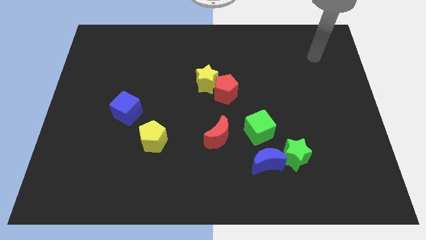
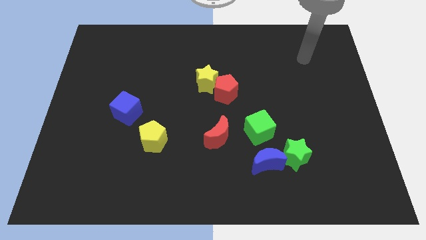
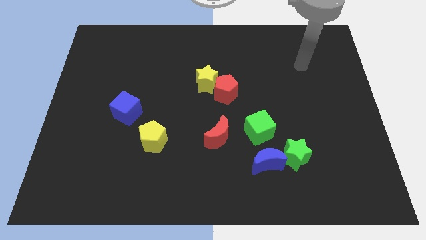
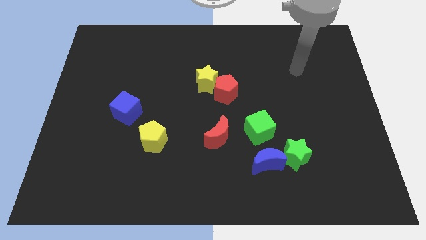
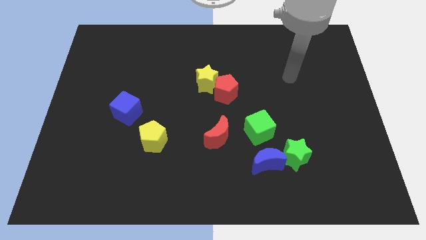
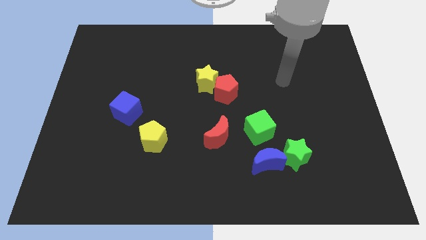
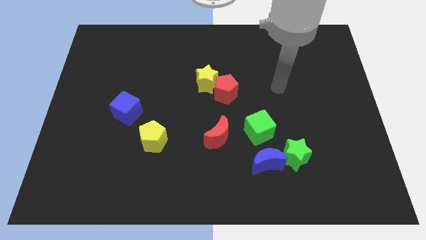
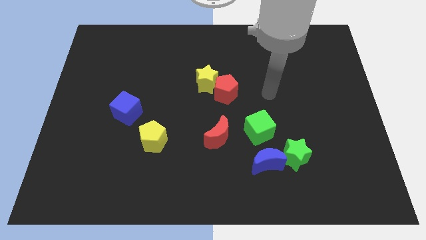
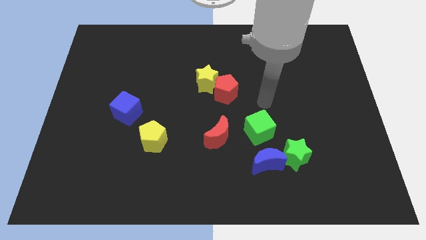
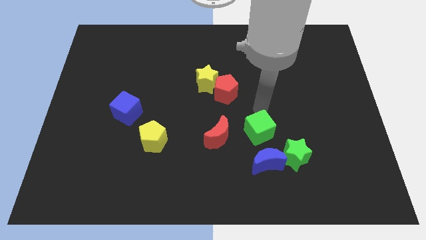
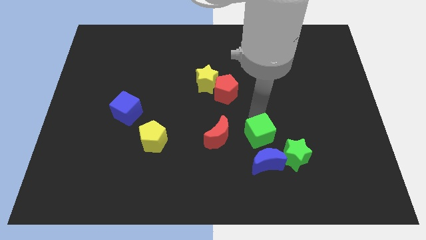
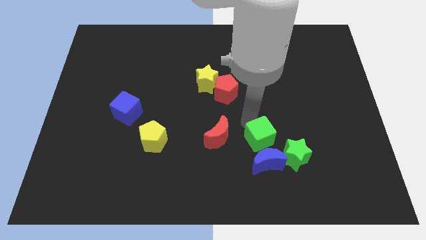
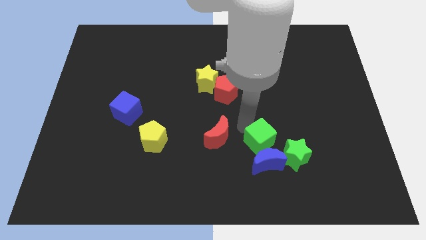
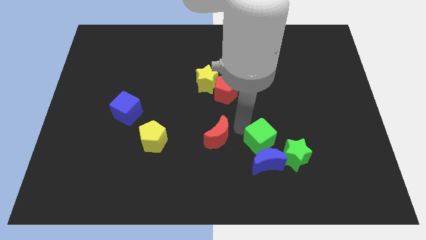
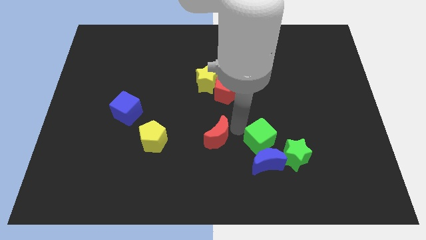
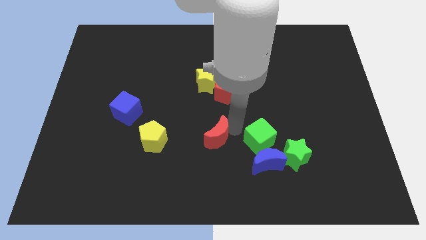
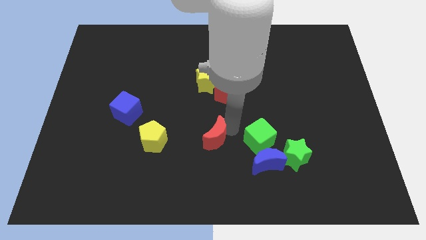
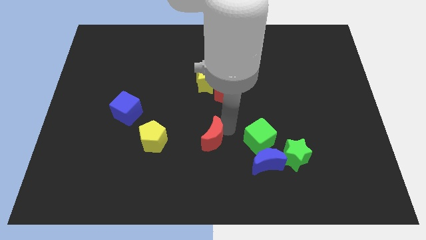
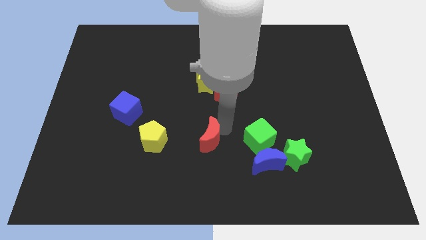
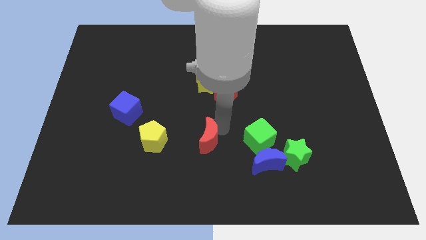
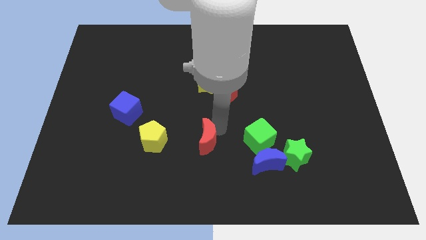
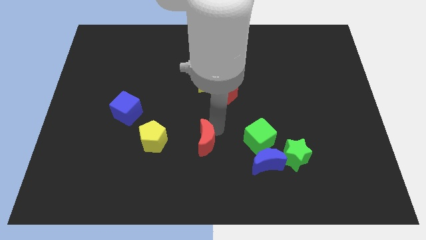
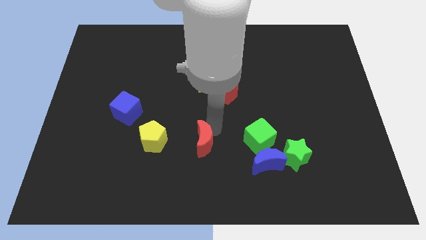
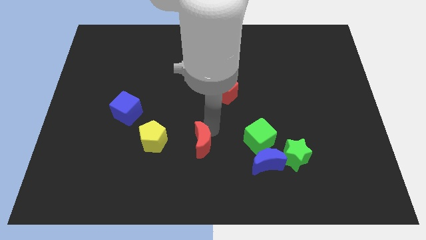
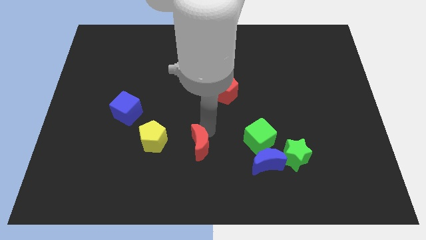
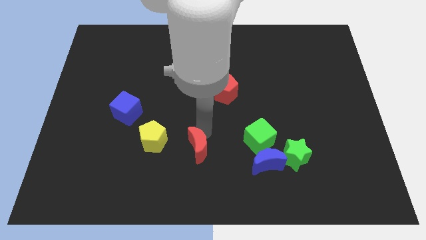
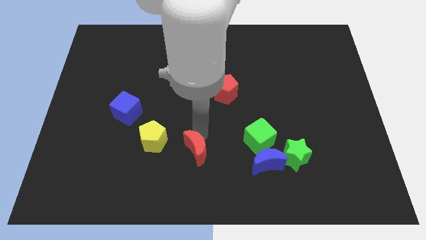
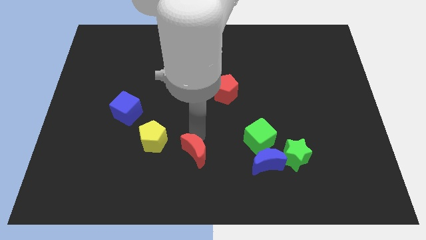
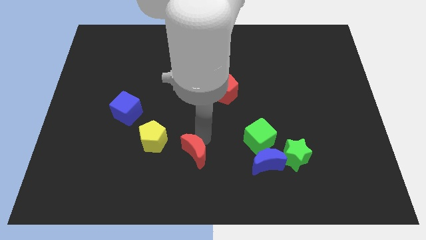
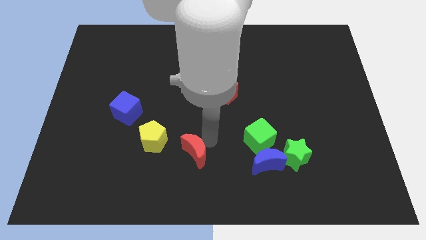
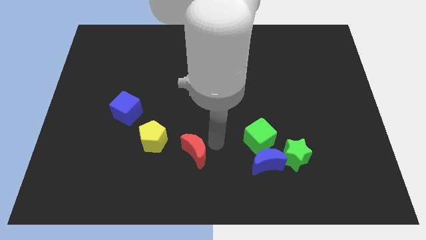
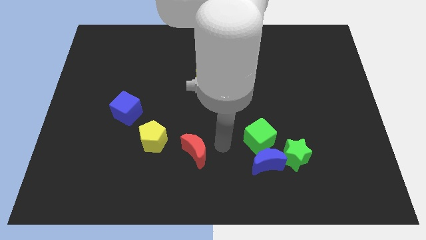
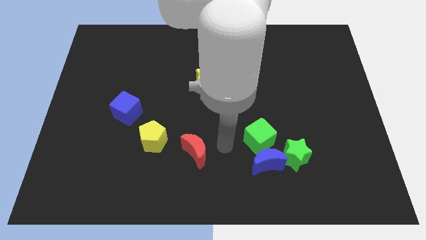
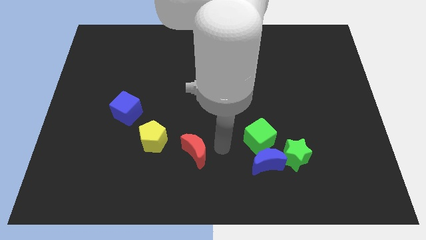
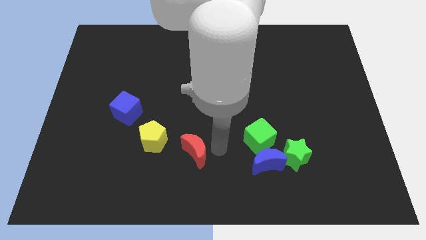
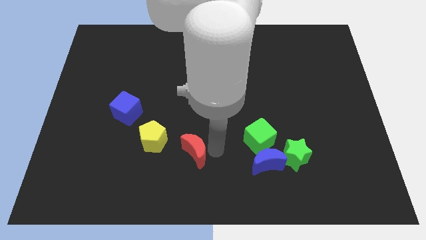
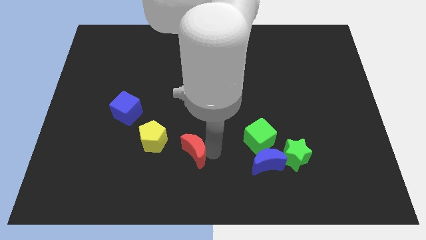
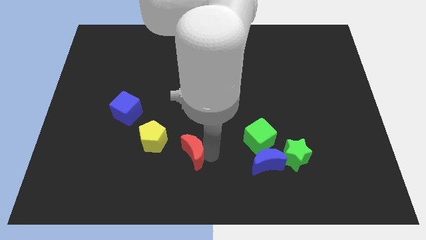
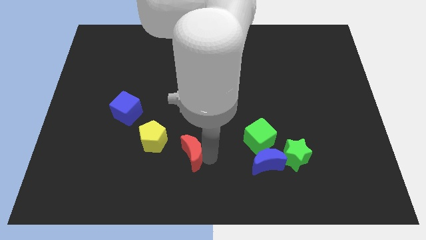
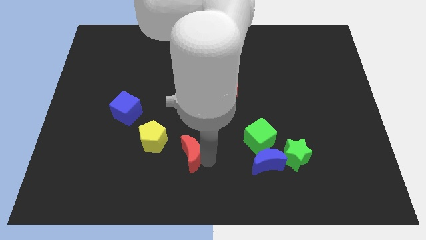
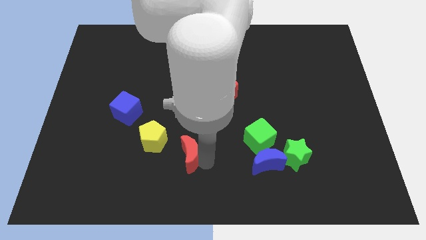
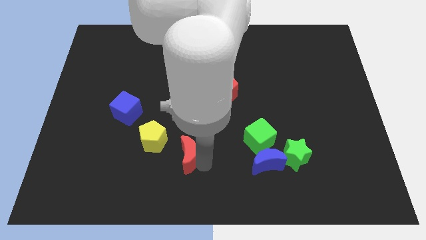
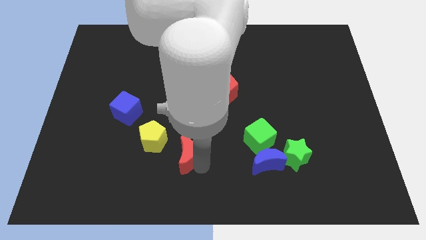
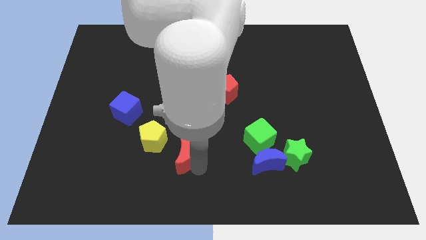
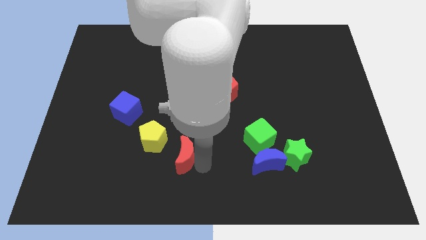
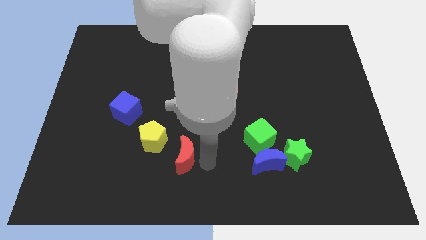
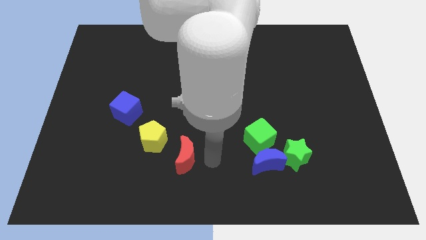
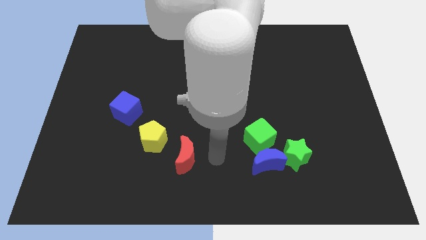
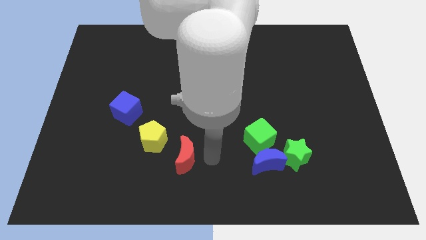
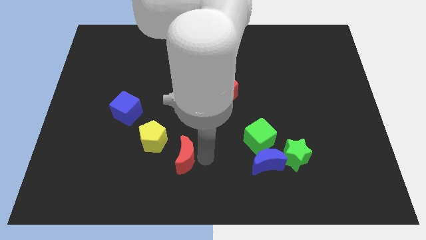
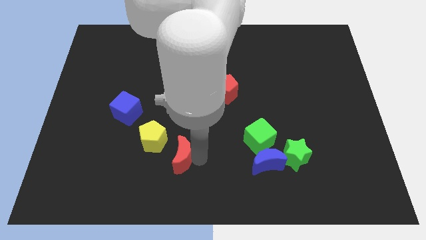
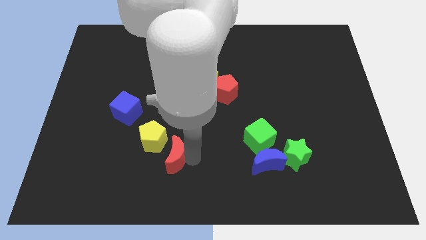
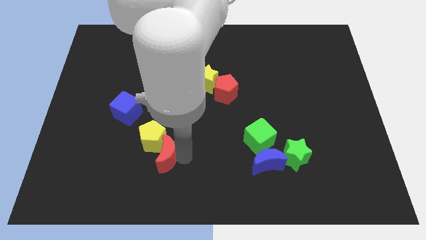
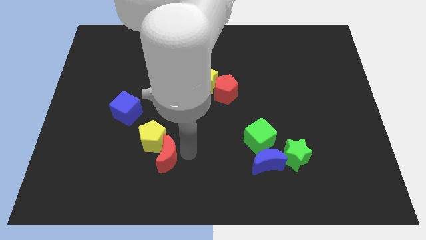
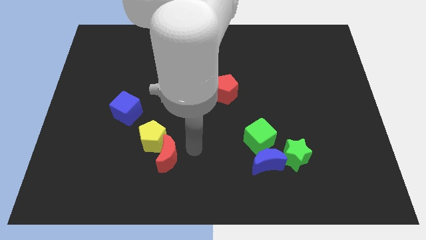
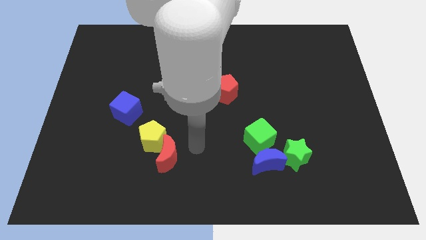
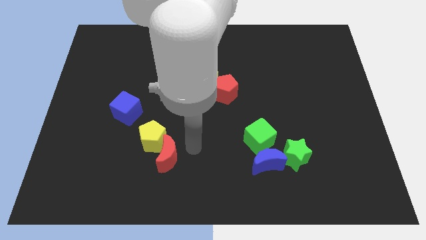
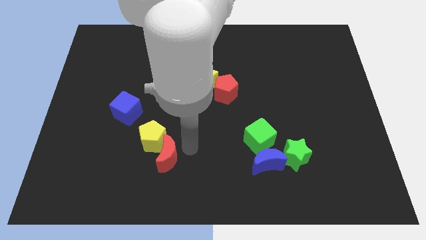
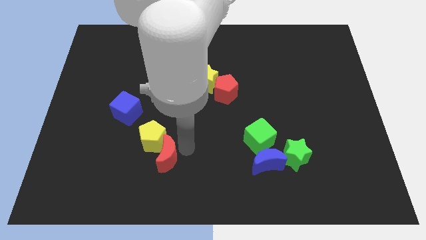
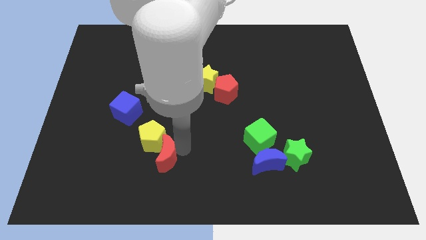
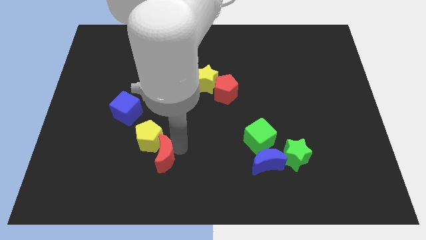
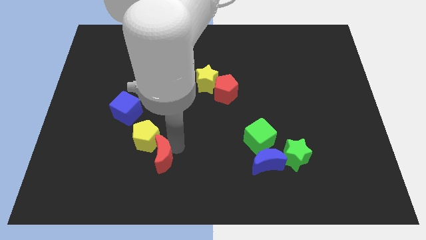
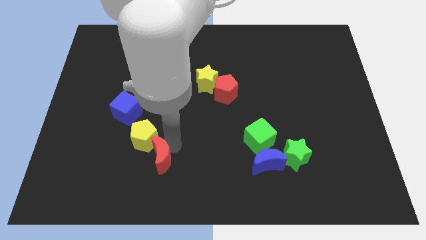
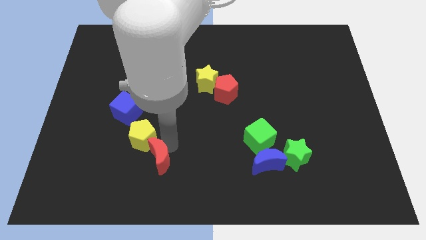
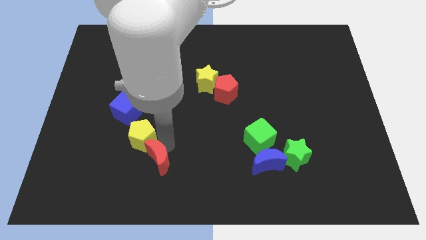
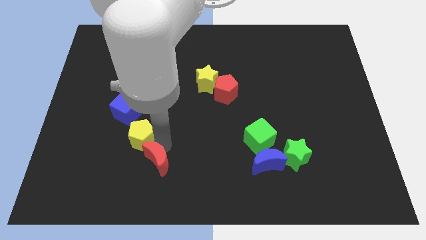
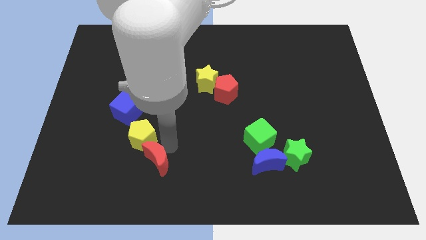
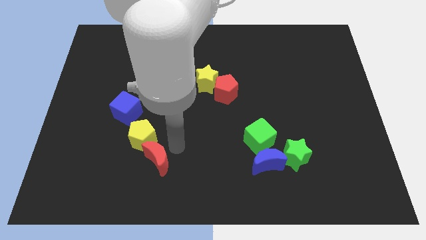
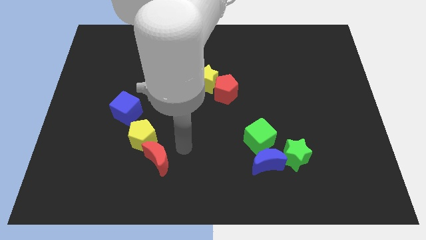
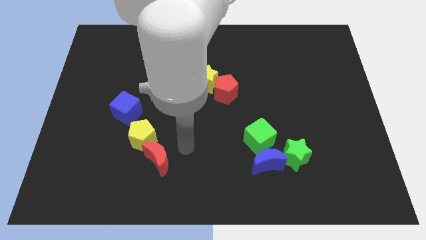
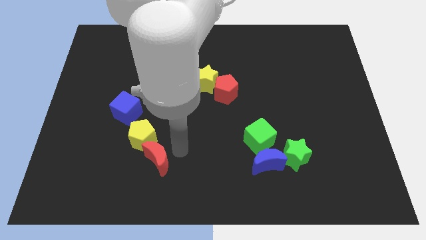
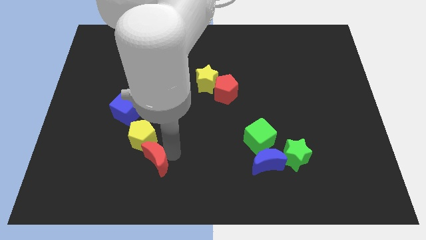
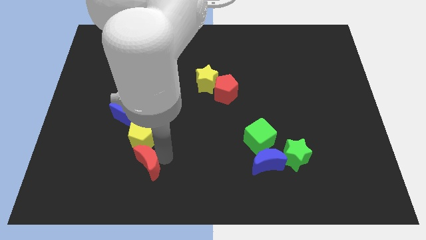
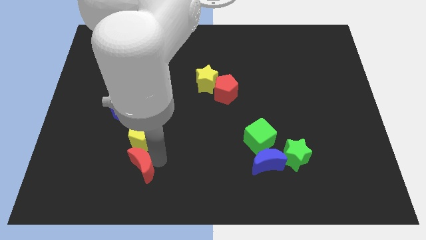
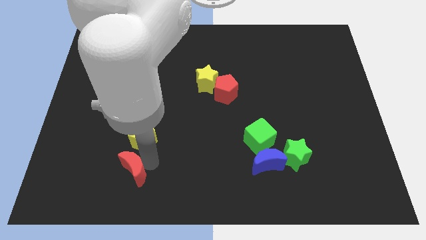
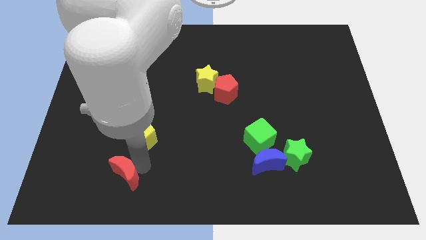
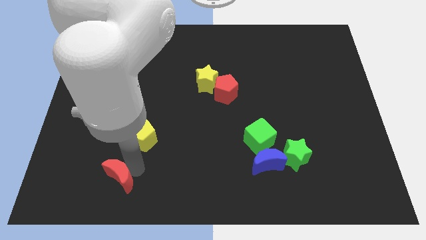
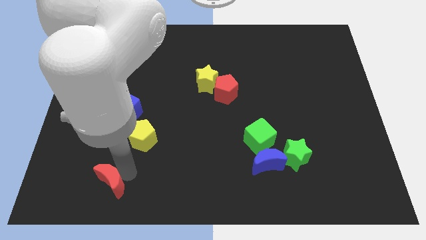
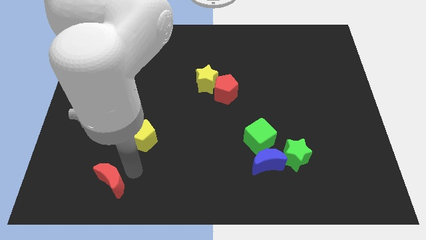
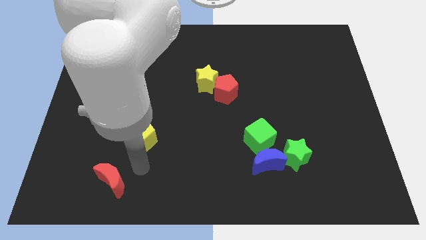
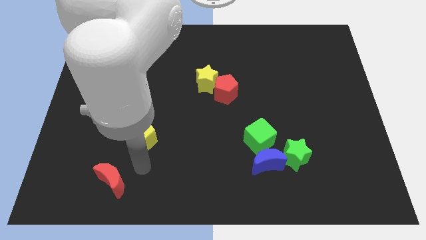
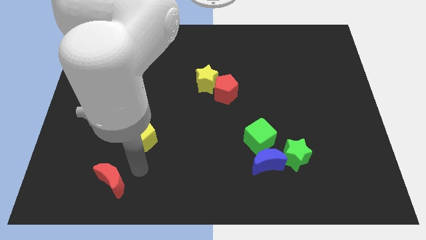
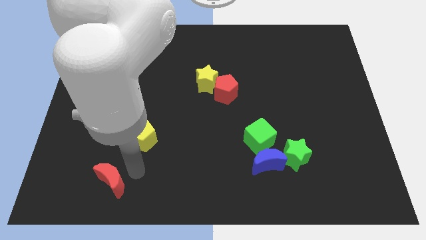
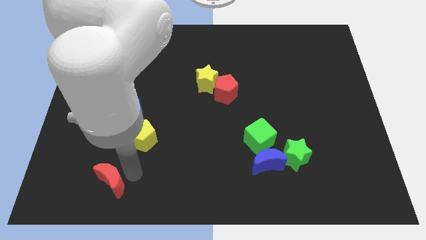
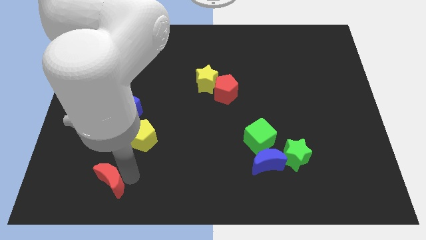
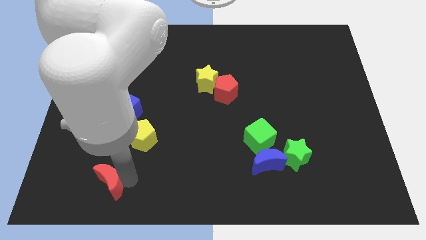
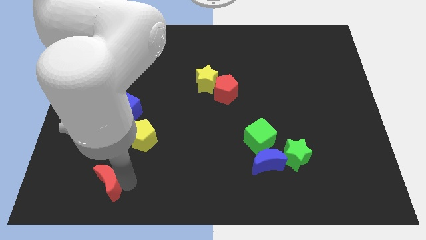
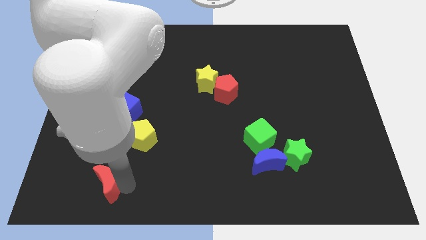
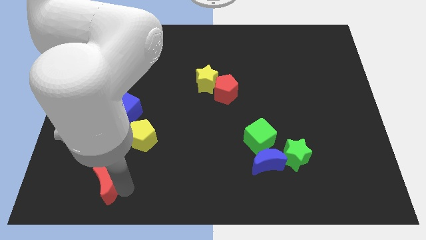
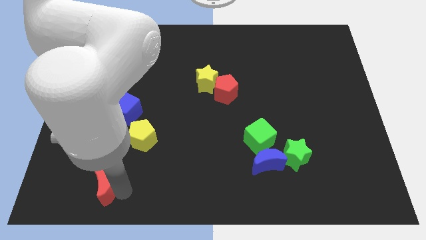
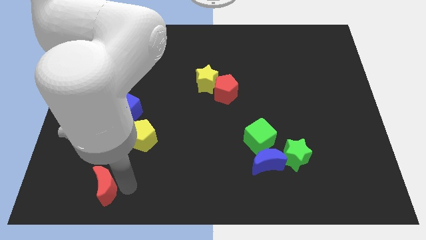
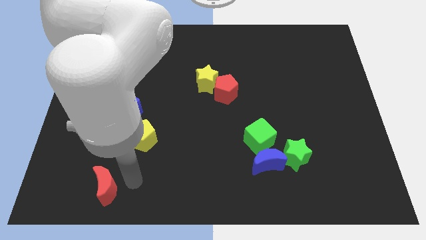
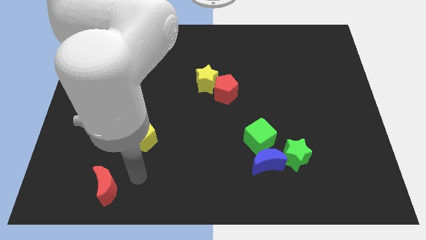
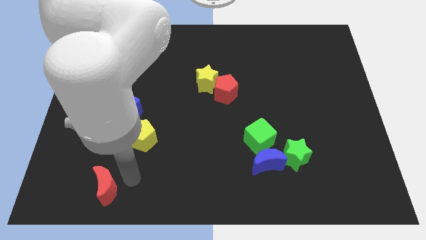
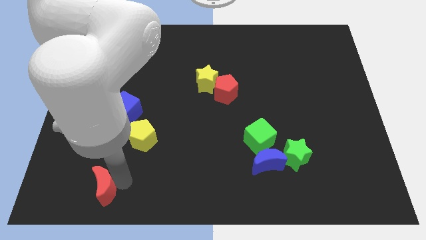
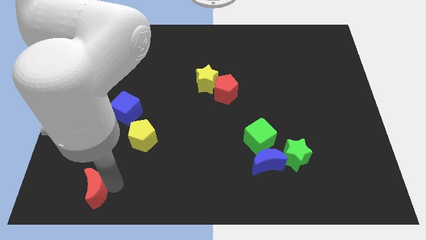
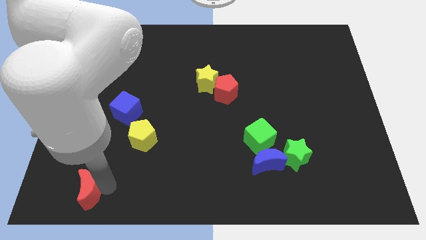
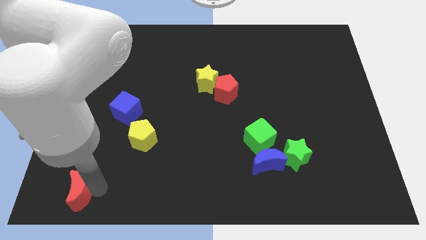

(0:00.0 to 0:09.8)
push the red moon to the bottom left of the board
